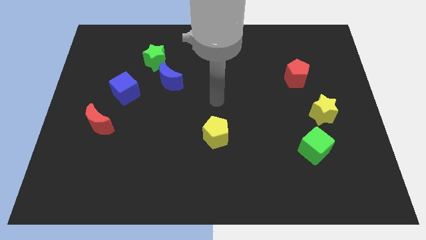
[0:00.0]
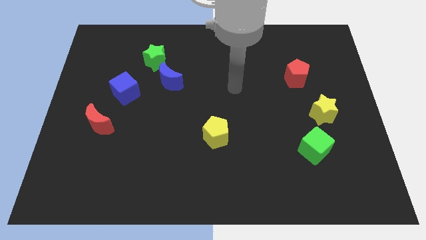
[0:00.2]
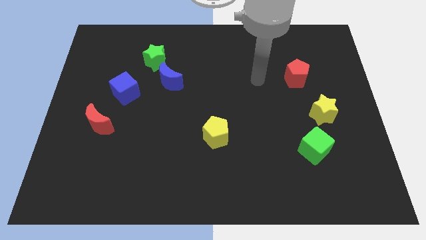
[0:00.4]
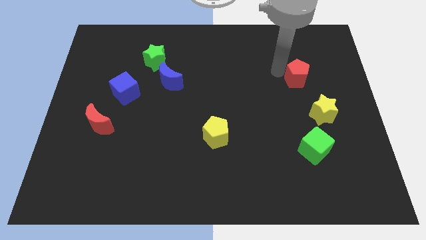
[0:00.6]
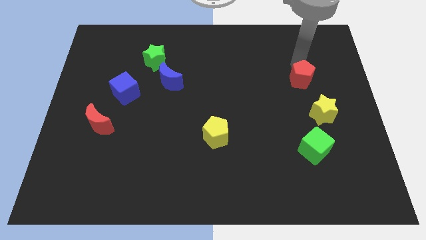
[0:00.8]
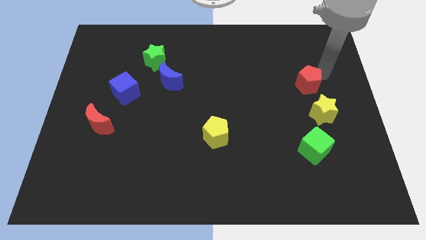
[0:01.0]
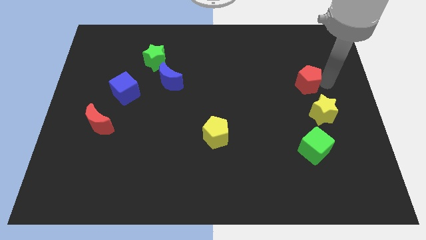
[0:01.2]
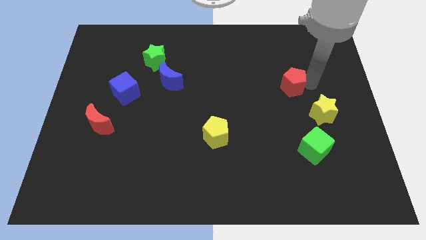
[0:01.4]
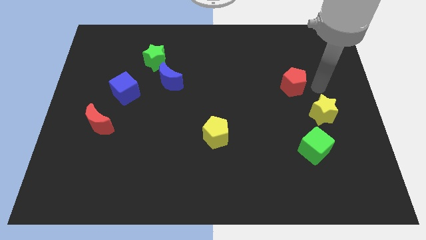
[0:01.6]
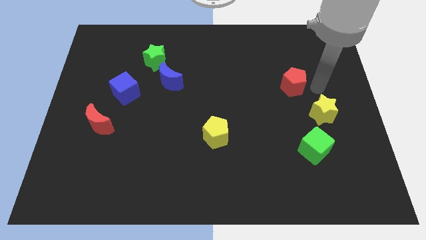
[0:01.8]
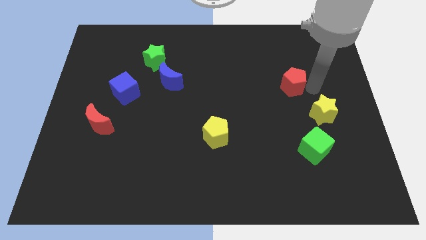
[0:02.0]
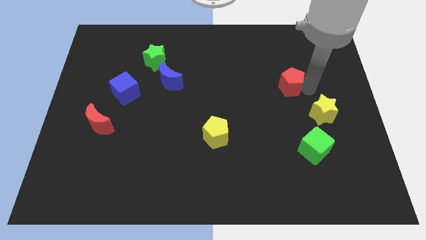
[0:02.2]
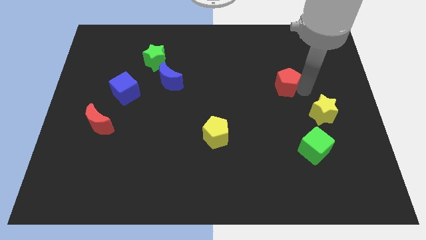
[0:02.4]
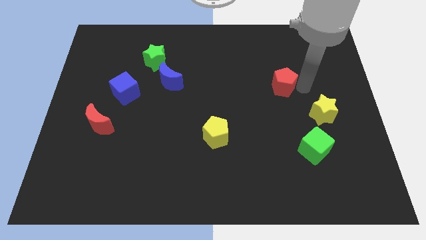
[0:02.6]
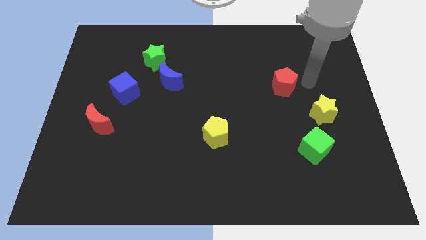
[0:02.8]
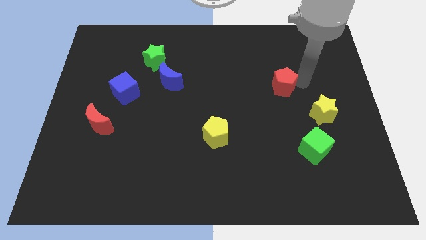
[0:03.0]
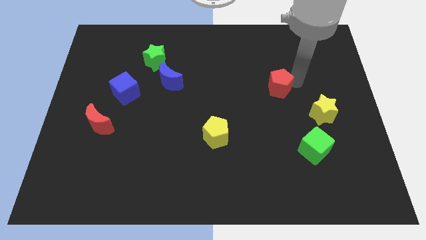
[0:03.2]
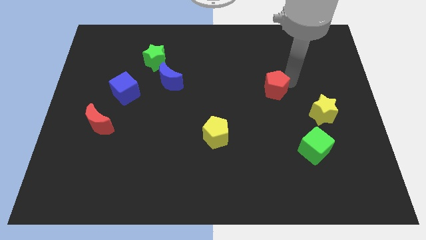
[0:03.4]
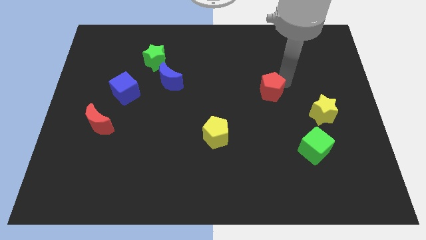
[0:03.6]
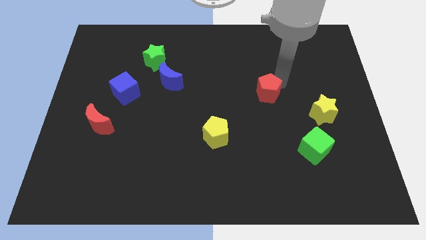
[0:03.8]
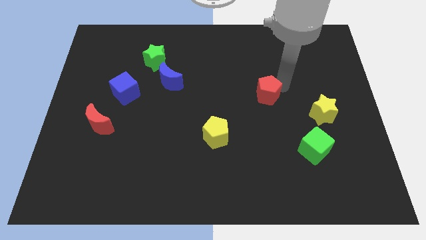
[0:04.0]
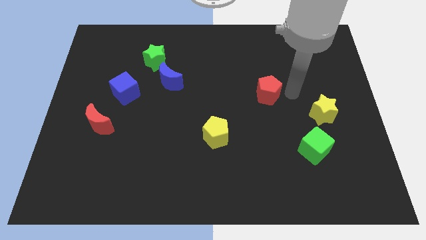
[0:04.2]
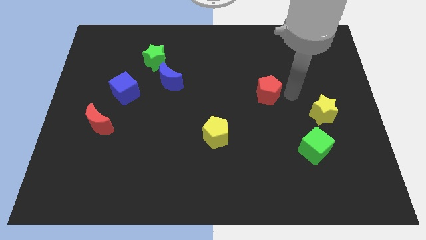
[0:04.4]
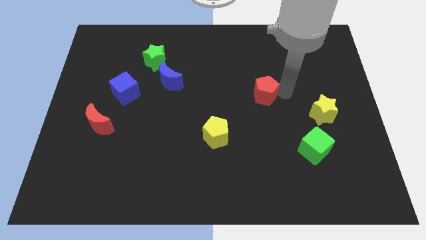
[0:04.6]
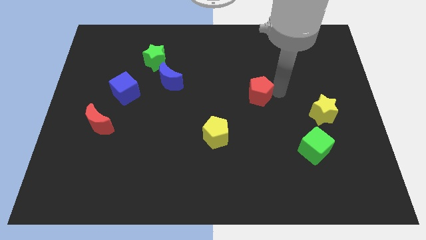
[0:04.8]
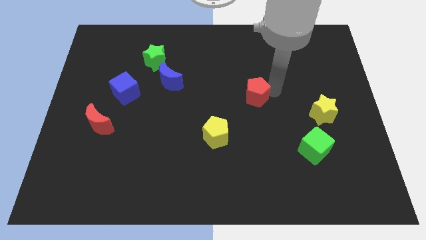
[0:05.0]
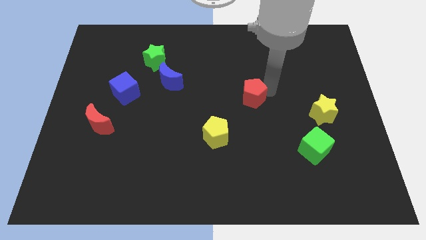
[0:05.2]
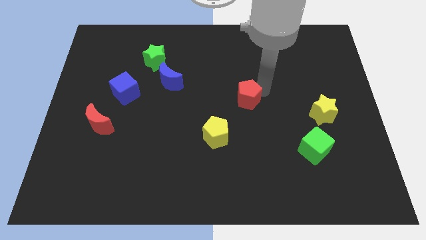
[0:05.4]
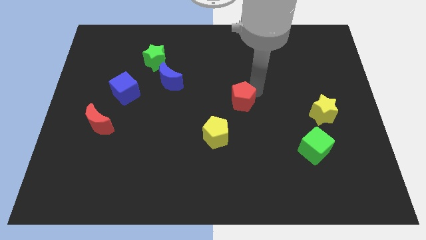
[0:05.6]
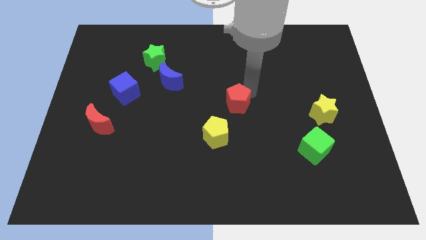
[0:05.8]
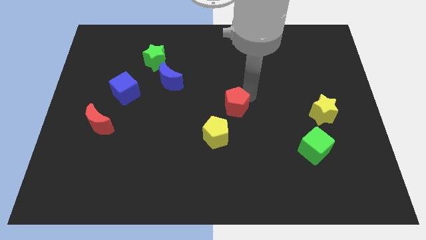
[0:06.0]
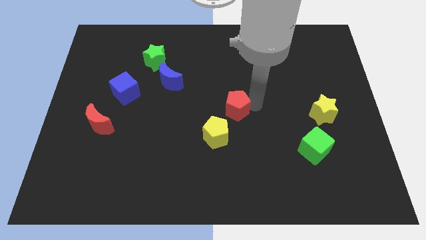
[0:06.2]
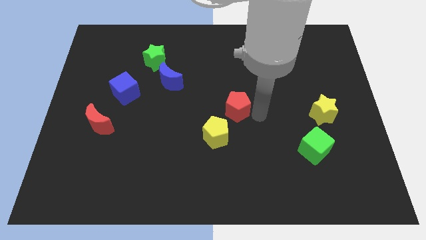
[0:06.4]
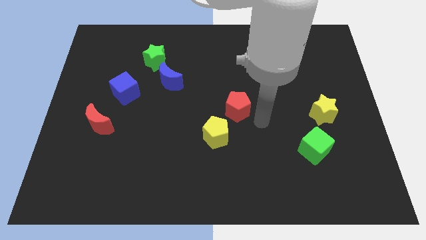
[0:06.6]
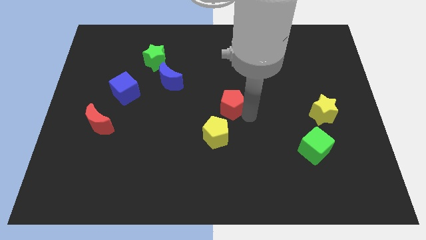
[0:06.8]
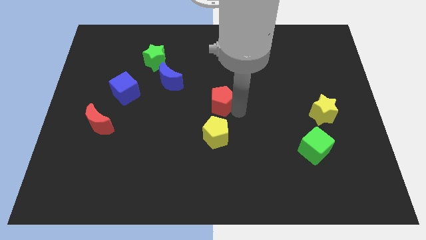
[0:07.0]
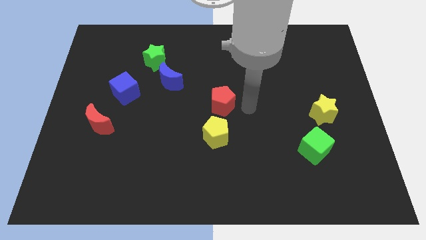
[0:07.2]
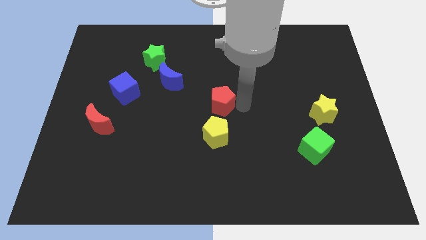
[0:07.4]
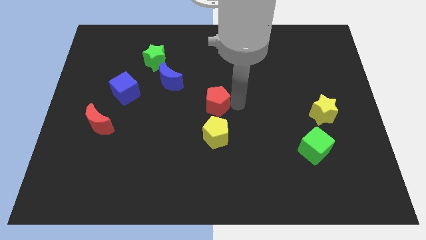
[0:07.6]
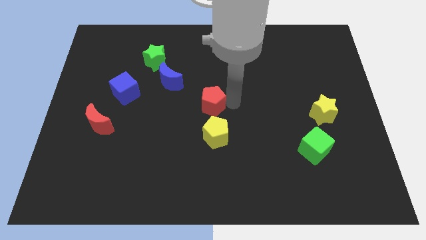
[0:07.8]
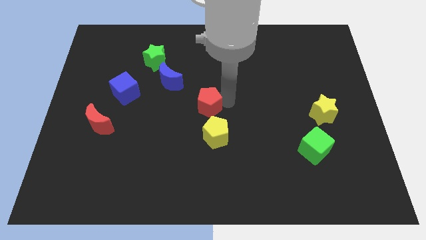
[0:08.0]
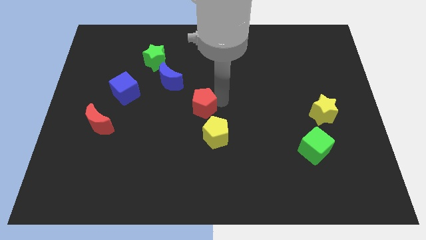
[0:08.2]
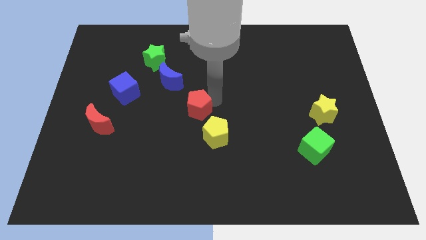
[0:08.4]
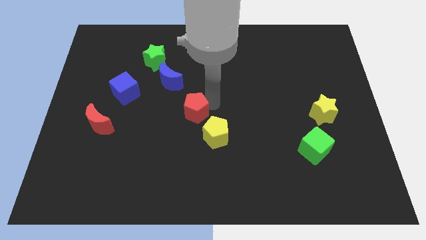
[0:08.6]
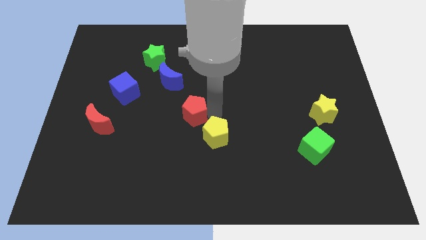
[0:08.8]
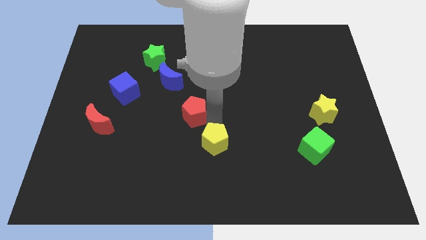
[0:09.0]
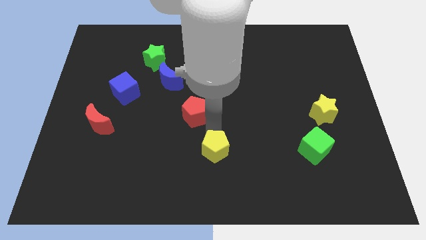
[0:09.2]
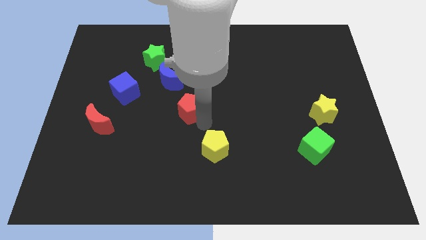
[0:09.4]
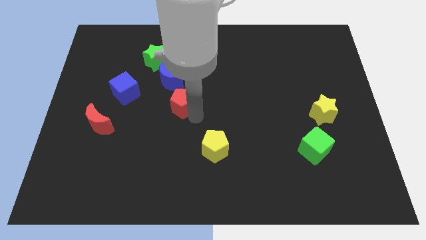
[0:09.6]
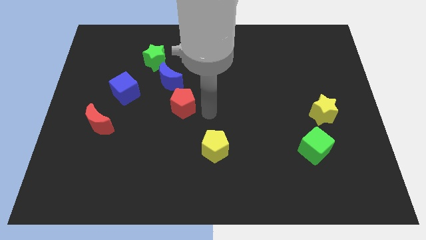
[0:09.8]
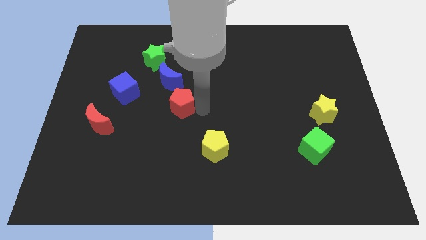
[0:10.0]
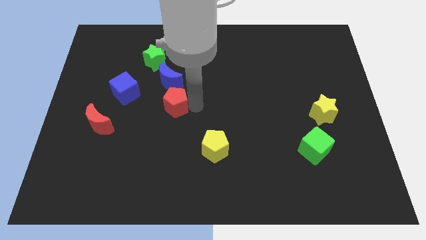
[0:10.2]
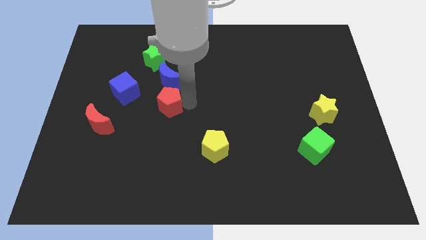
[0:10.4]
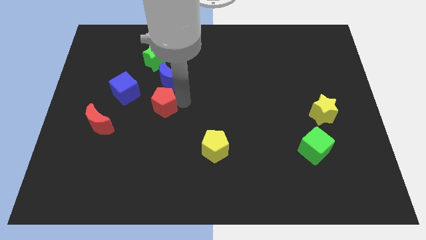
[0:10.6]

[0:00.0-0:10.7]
put the red pentagon diagonally down and to the left of the blue moon
